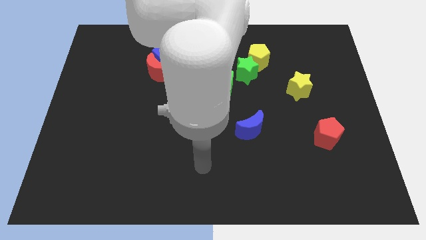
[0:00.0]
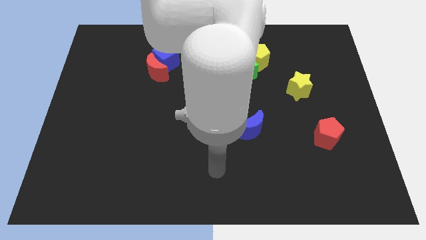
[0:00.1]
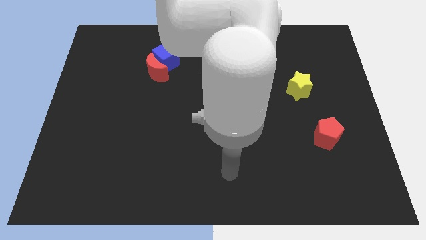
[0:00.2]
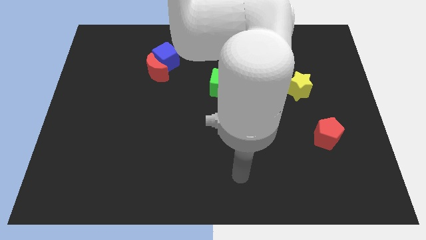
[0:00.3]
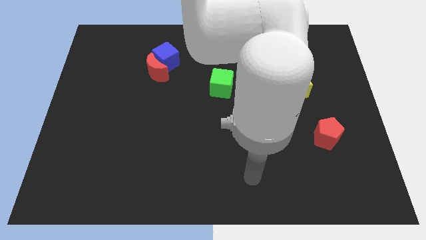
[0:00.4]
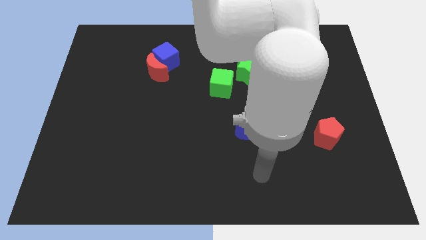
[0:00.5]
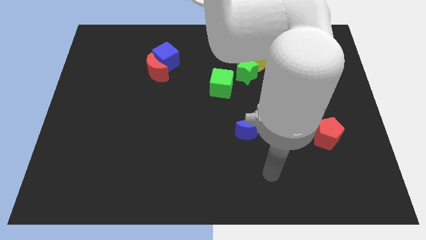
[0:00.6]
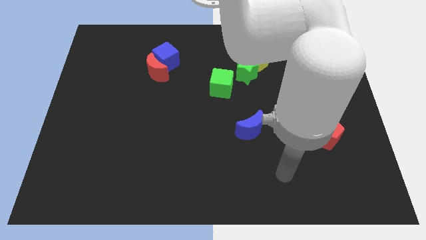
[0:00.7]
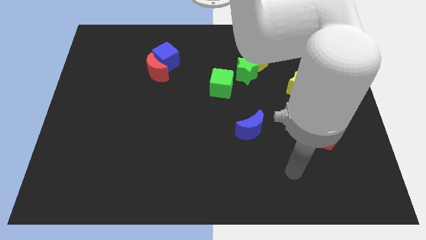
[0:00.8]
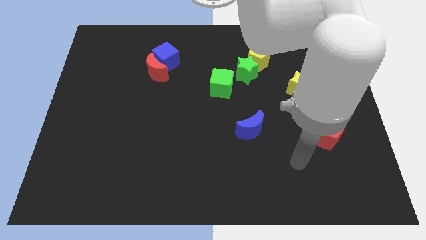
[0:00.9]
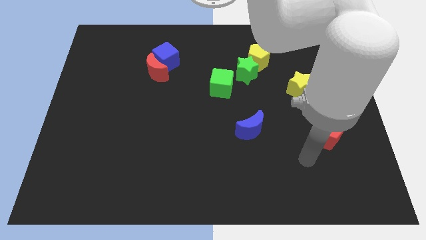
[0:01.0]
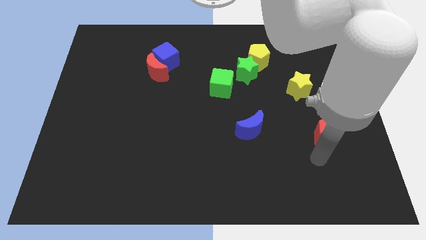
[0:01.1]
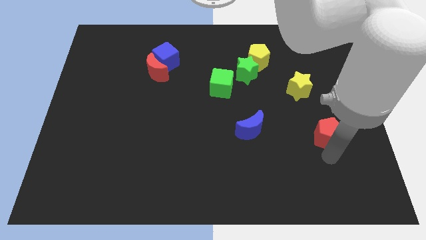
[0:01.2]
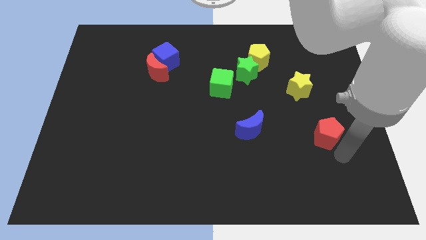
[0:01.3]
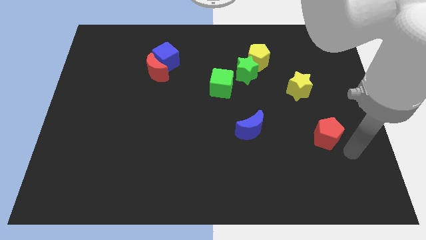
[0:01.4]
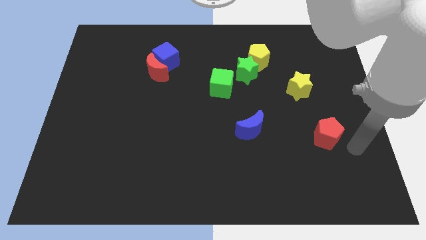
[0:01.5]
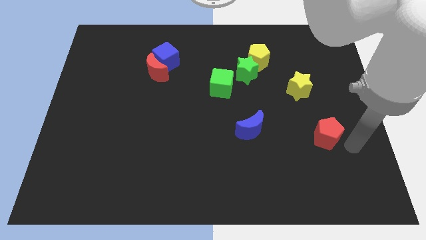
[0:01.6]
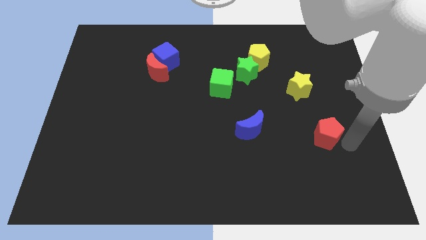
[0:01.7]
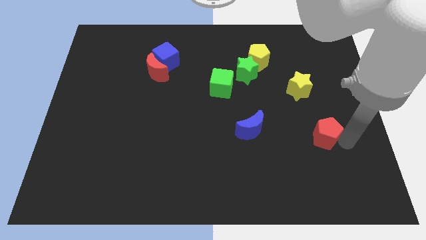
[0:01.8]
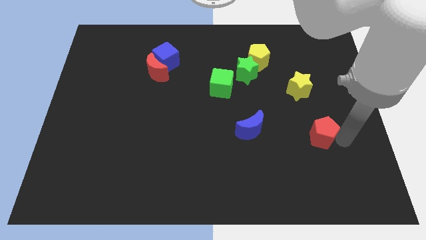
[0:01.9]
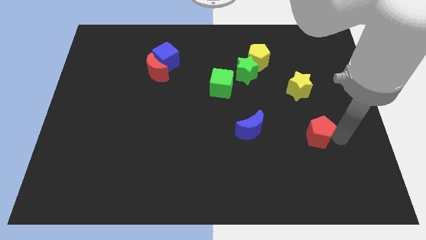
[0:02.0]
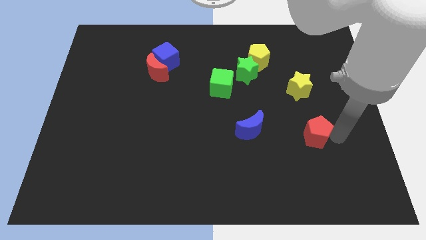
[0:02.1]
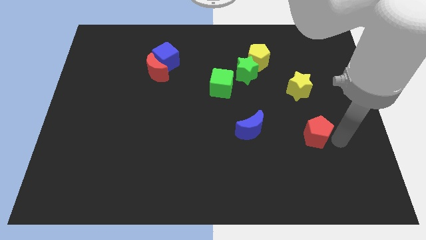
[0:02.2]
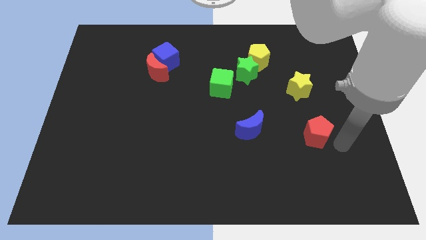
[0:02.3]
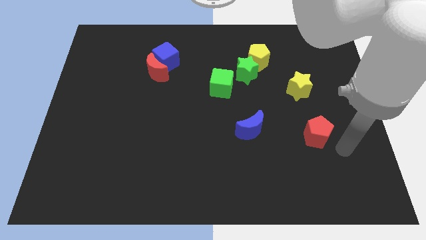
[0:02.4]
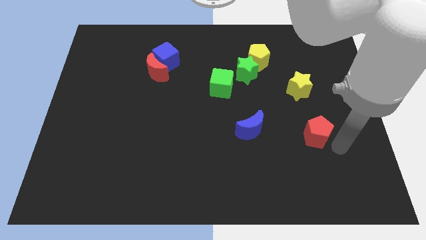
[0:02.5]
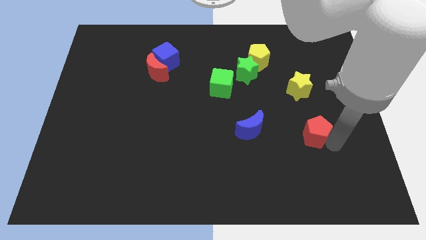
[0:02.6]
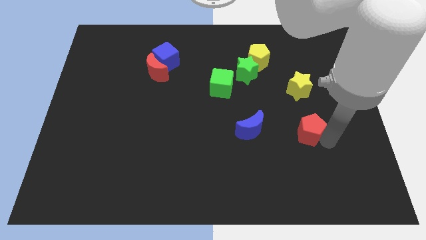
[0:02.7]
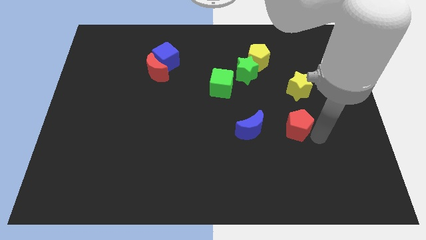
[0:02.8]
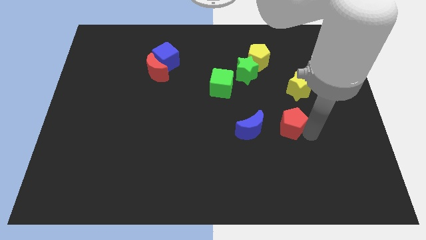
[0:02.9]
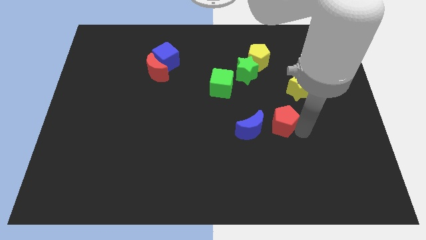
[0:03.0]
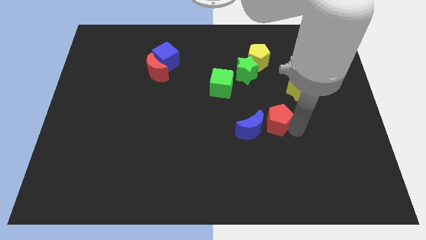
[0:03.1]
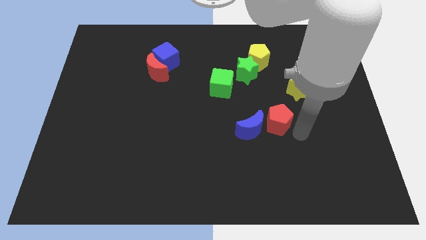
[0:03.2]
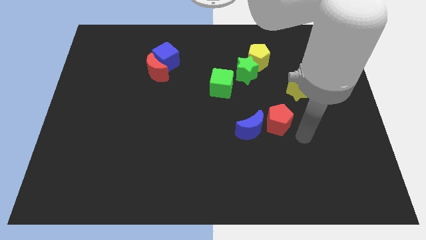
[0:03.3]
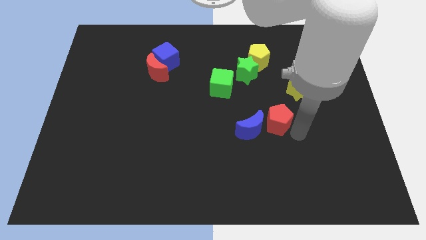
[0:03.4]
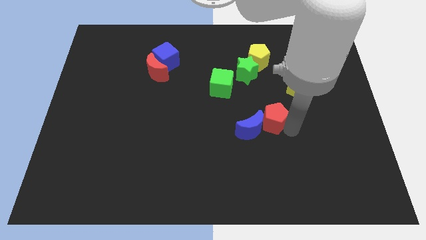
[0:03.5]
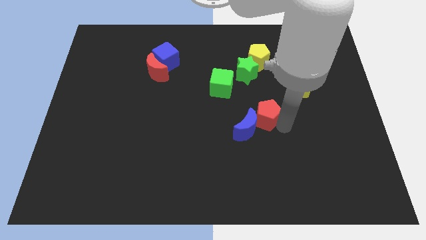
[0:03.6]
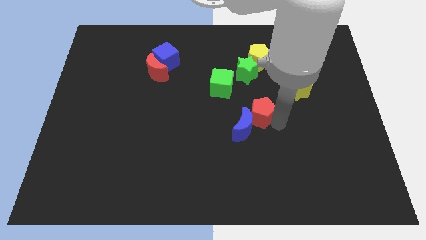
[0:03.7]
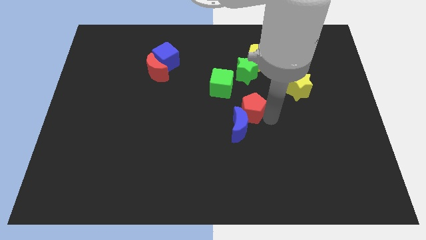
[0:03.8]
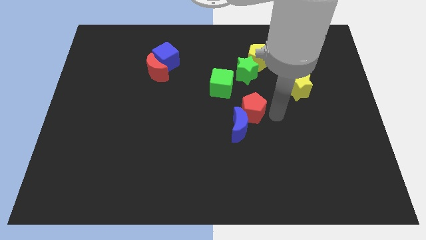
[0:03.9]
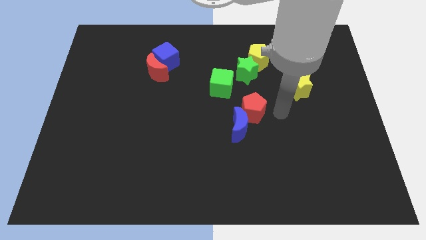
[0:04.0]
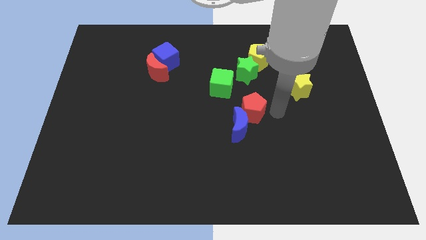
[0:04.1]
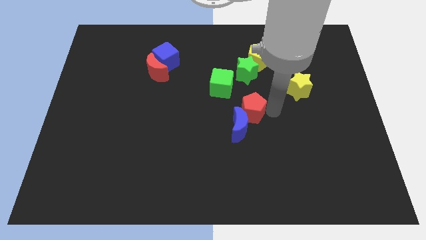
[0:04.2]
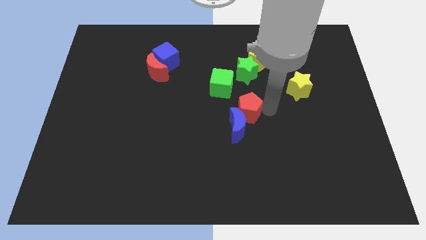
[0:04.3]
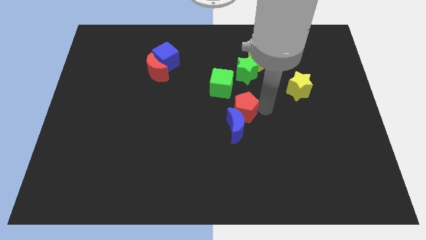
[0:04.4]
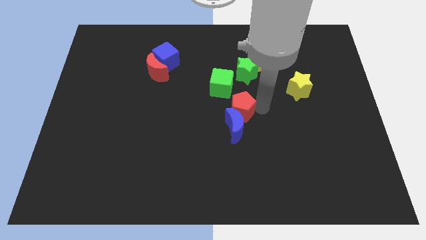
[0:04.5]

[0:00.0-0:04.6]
put the red pentagon to the top left side of the blue moon

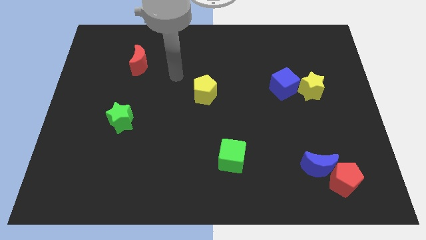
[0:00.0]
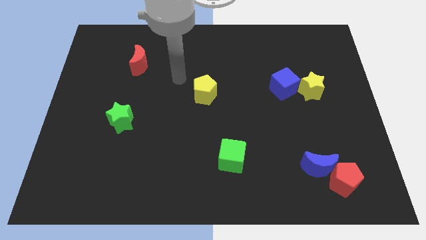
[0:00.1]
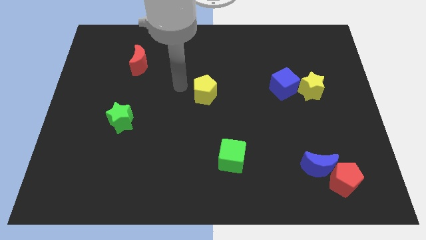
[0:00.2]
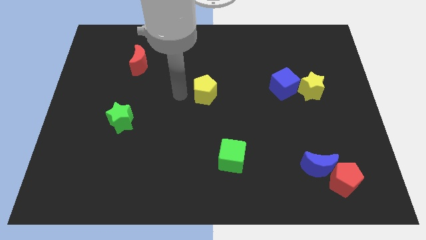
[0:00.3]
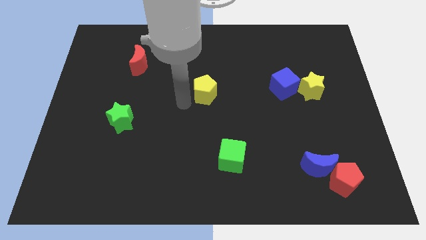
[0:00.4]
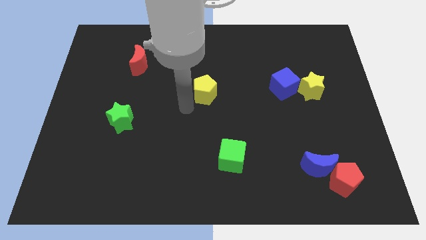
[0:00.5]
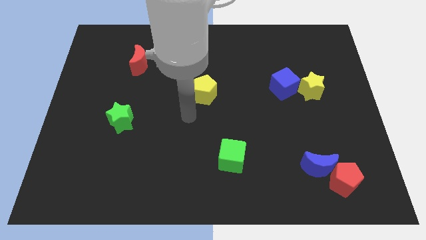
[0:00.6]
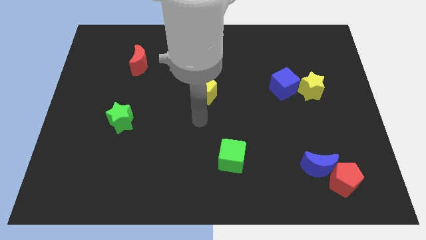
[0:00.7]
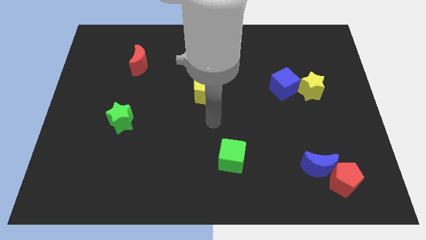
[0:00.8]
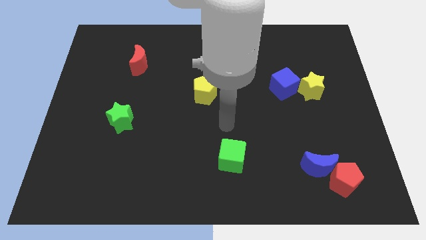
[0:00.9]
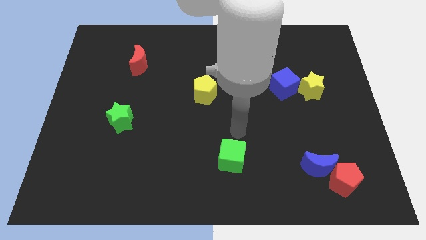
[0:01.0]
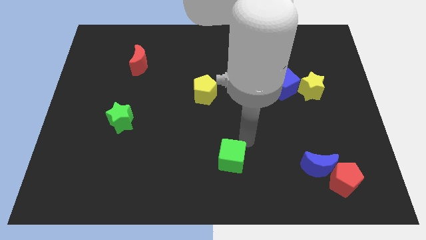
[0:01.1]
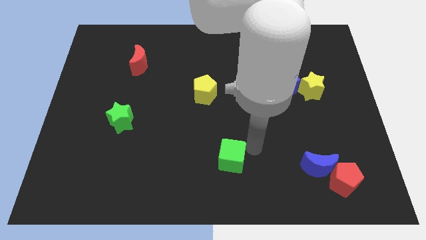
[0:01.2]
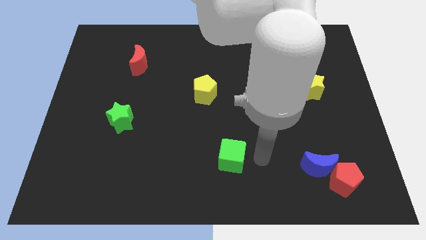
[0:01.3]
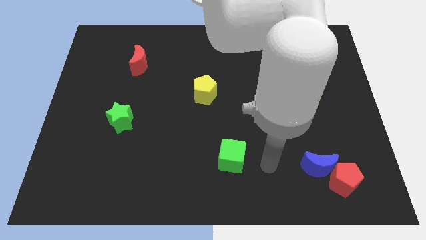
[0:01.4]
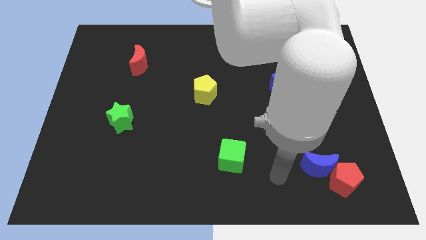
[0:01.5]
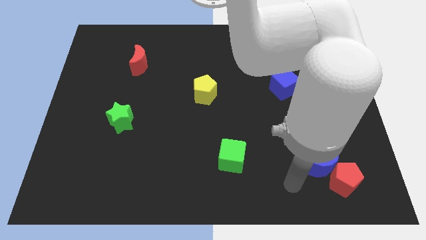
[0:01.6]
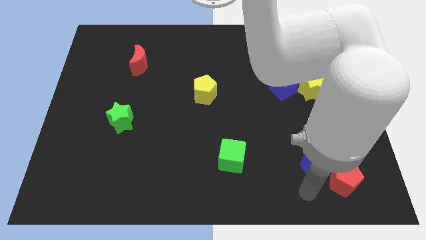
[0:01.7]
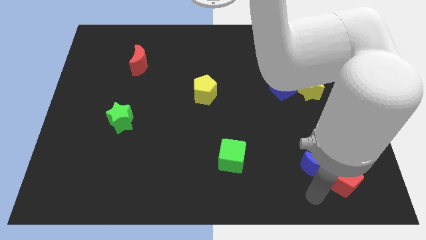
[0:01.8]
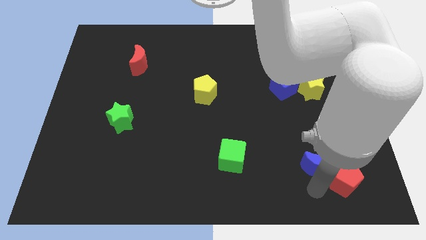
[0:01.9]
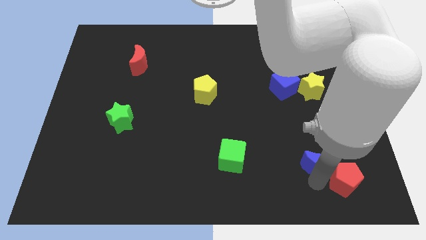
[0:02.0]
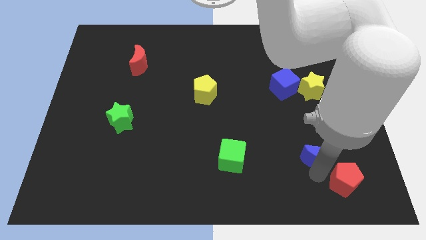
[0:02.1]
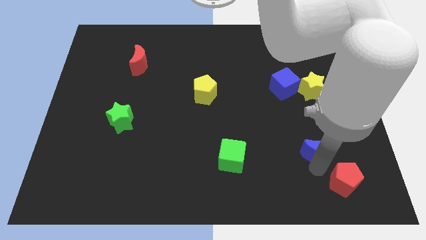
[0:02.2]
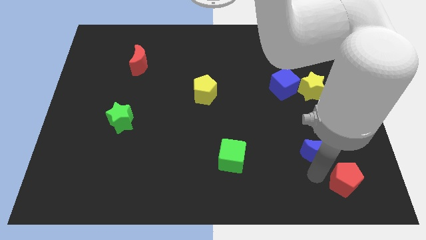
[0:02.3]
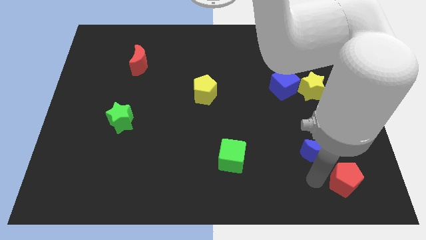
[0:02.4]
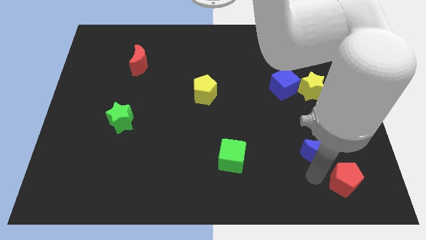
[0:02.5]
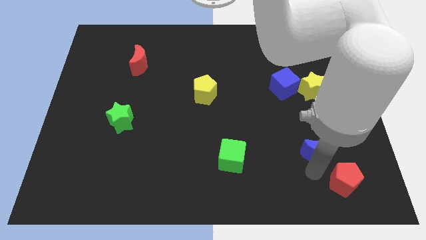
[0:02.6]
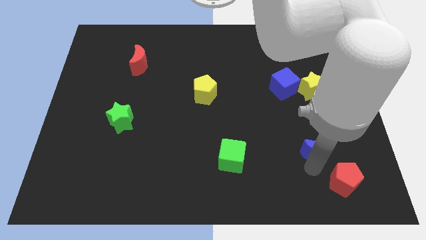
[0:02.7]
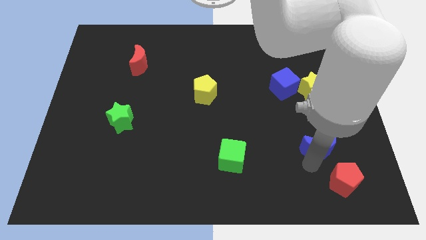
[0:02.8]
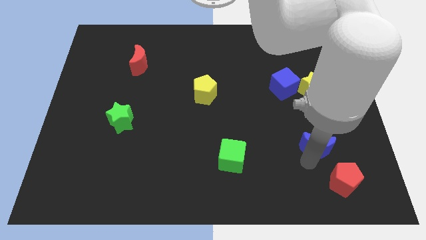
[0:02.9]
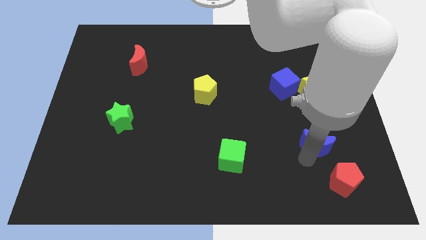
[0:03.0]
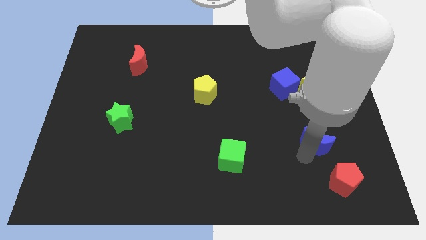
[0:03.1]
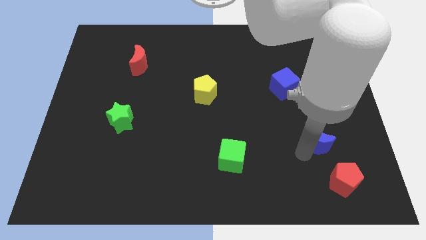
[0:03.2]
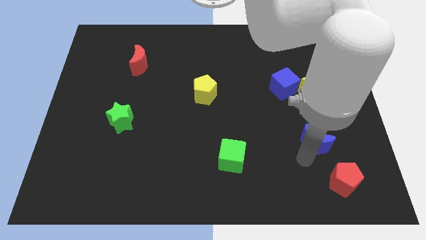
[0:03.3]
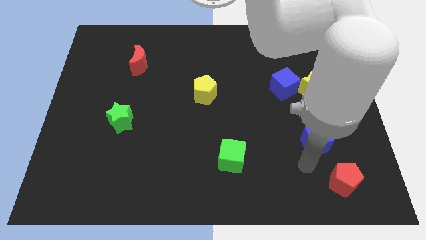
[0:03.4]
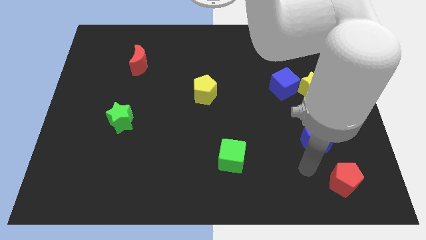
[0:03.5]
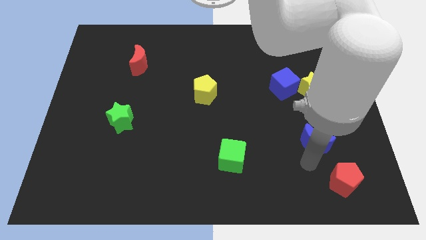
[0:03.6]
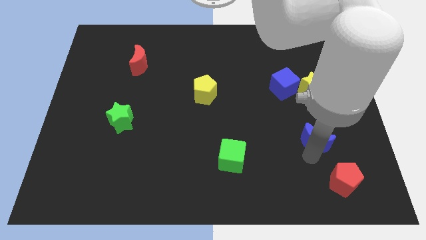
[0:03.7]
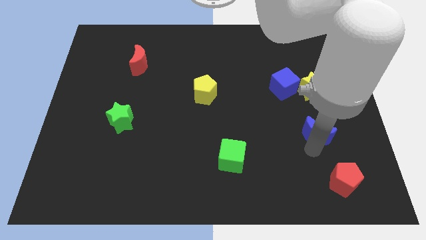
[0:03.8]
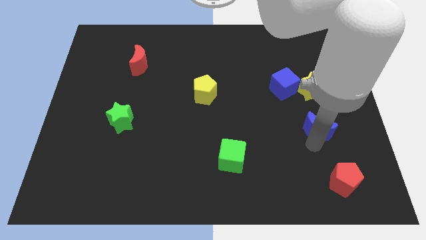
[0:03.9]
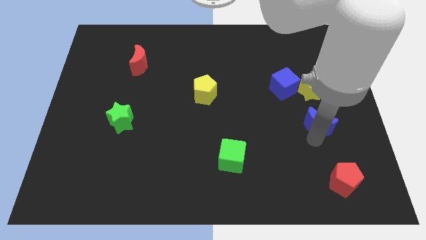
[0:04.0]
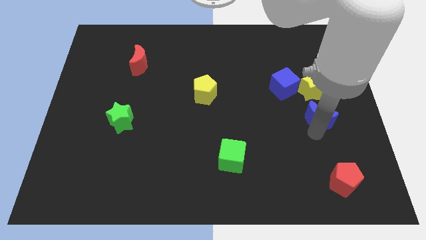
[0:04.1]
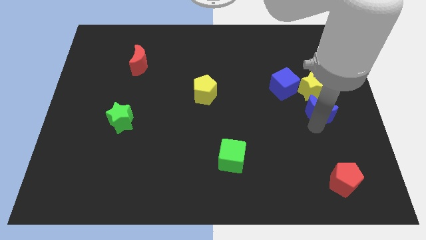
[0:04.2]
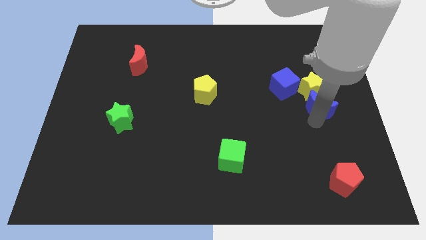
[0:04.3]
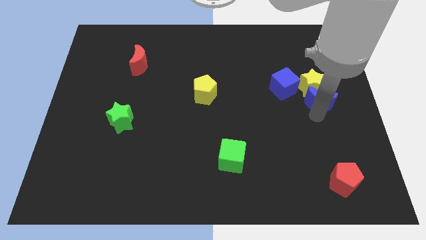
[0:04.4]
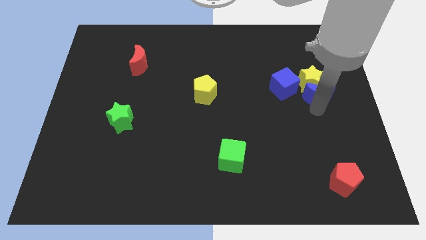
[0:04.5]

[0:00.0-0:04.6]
push the blue moon right of the blue cube
